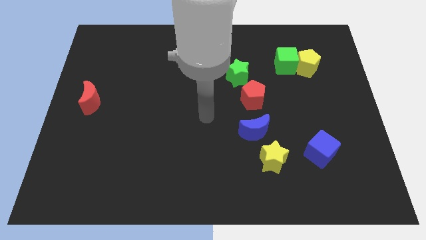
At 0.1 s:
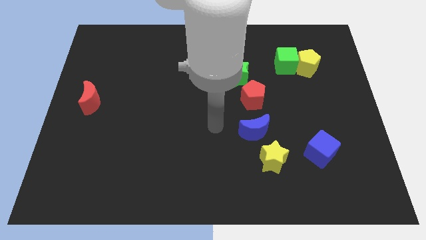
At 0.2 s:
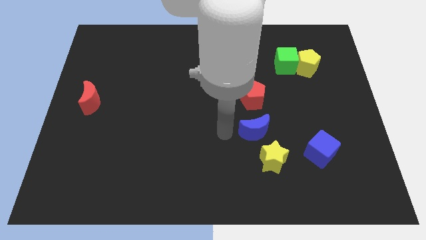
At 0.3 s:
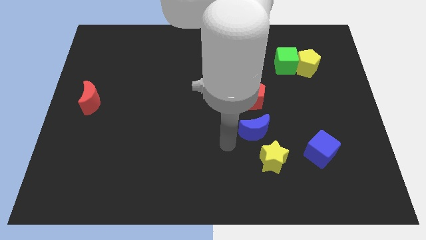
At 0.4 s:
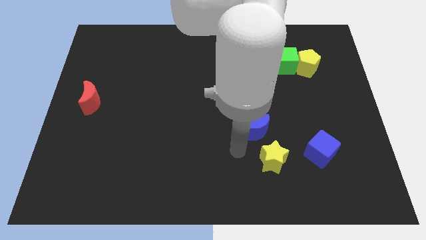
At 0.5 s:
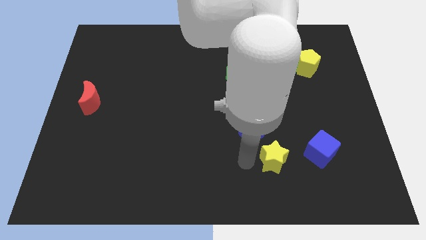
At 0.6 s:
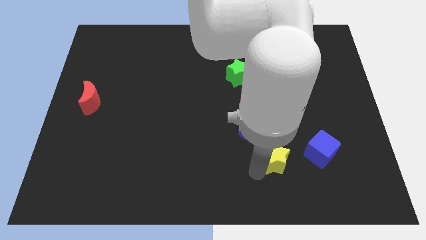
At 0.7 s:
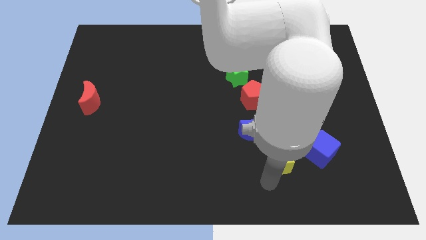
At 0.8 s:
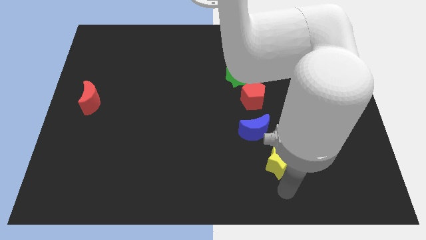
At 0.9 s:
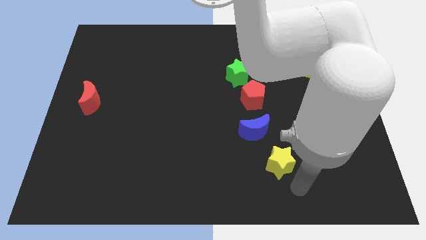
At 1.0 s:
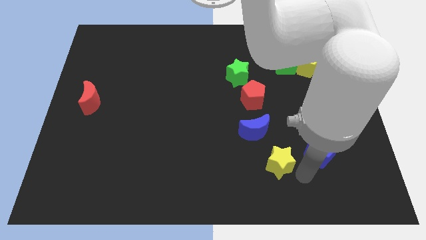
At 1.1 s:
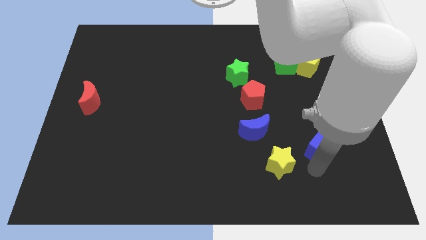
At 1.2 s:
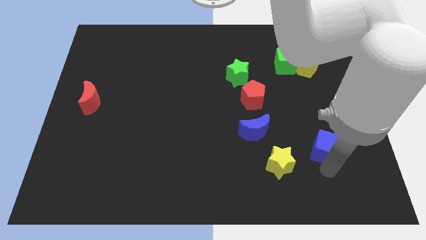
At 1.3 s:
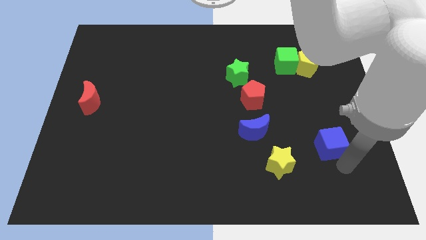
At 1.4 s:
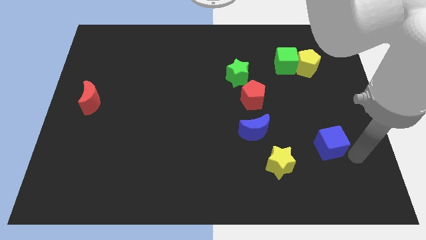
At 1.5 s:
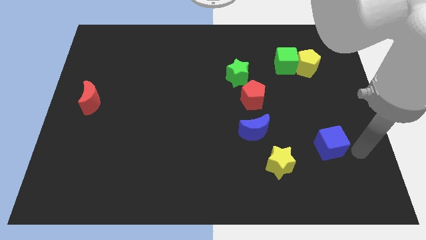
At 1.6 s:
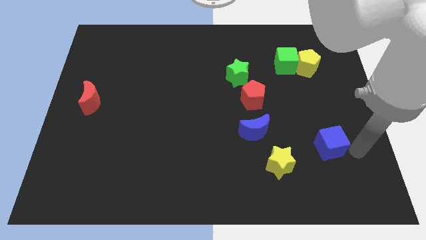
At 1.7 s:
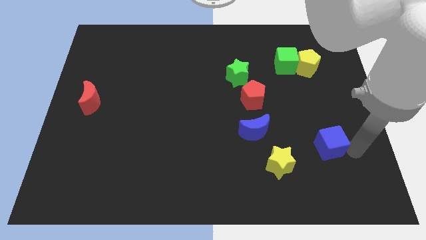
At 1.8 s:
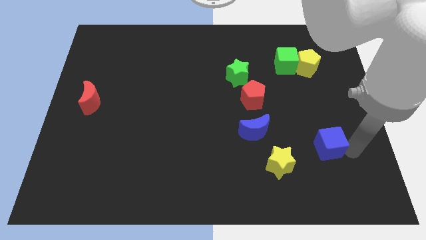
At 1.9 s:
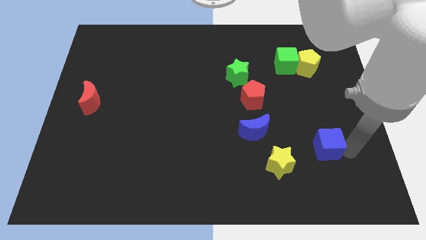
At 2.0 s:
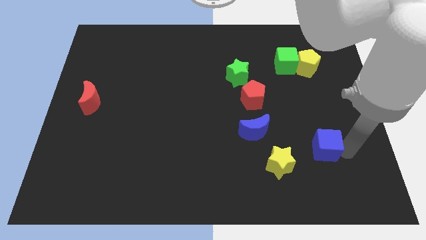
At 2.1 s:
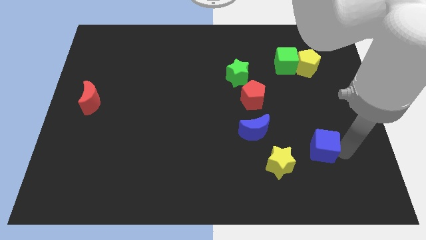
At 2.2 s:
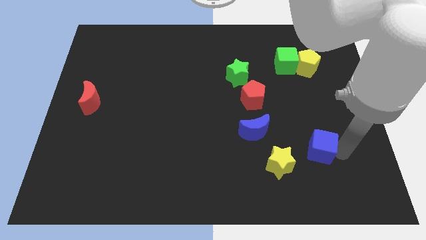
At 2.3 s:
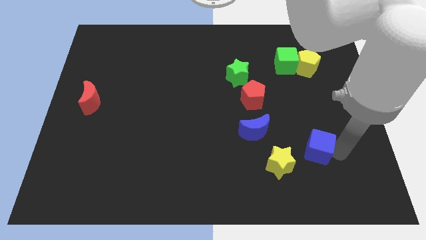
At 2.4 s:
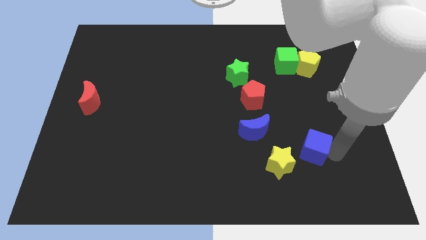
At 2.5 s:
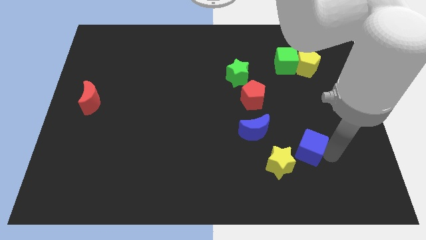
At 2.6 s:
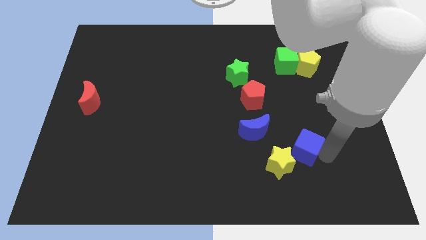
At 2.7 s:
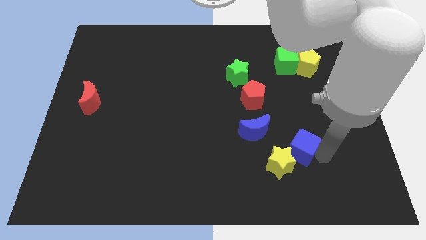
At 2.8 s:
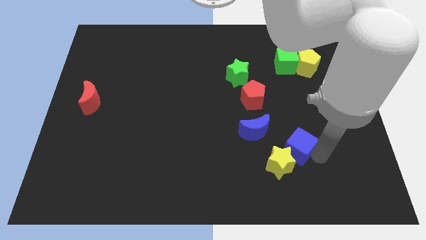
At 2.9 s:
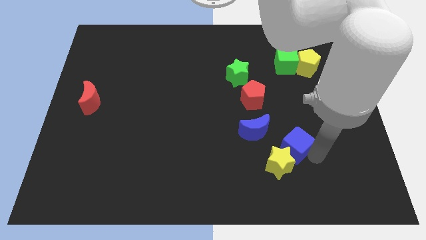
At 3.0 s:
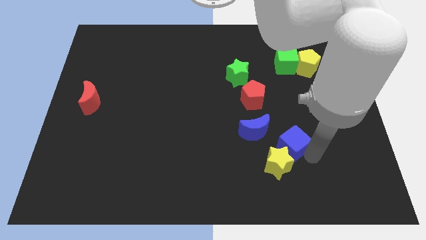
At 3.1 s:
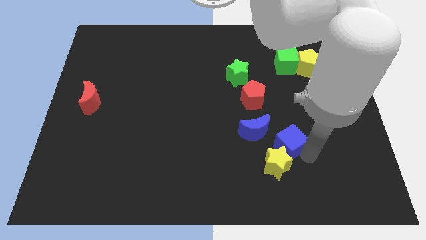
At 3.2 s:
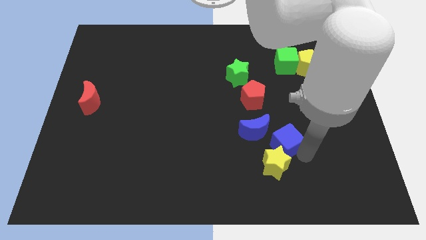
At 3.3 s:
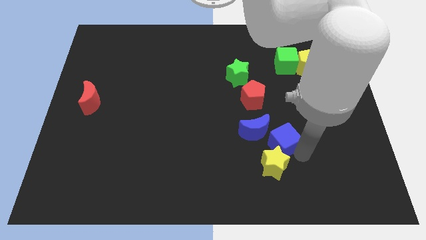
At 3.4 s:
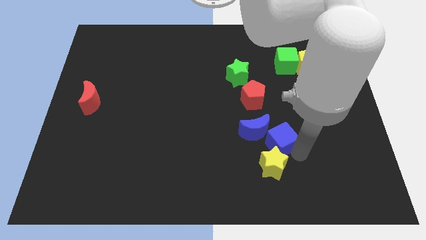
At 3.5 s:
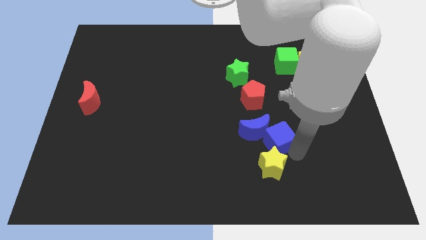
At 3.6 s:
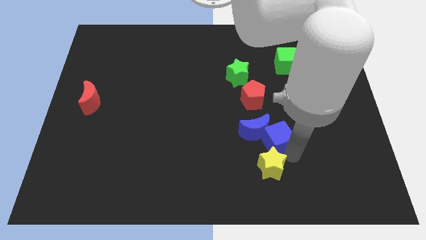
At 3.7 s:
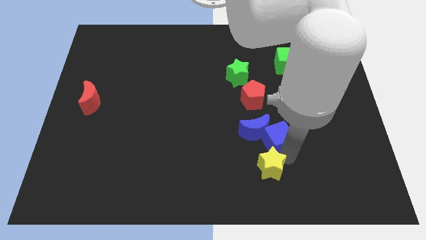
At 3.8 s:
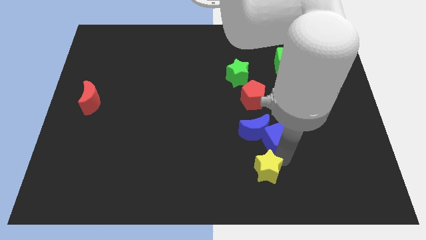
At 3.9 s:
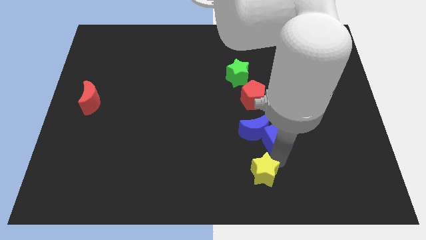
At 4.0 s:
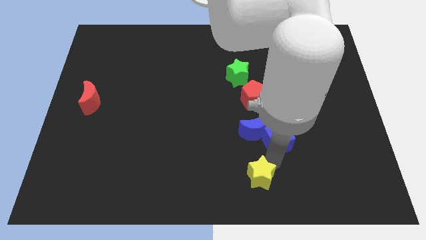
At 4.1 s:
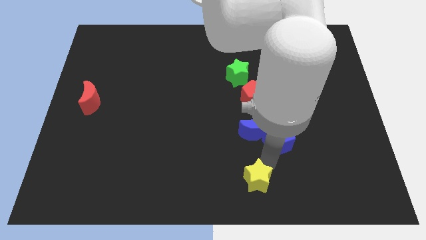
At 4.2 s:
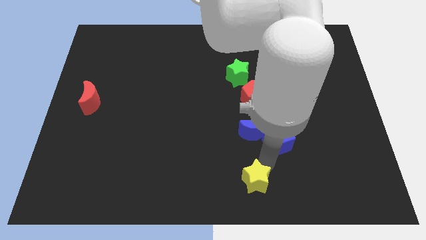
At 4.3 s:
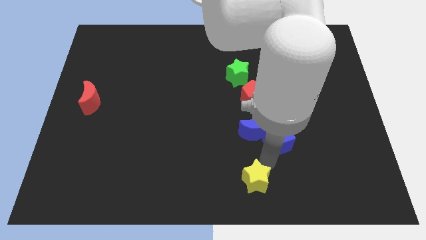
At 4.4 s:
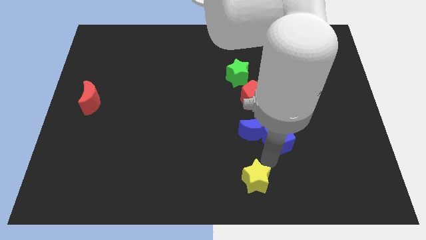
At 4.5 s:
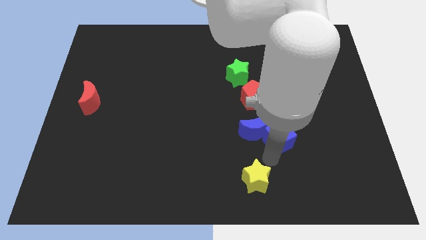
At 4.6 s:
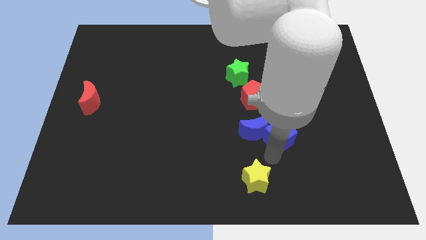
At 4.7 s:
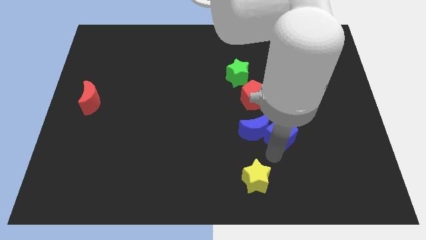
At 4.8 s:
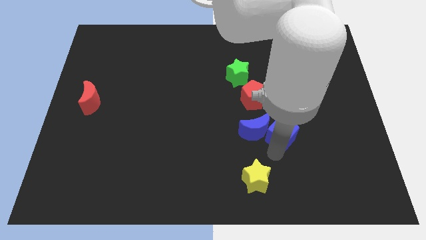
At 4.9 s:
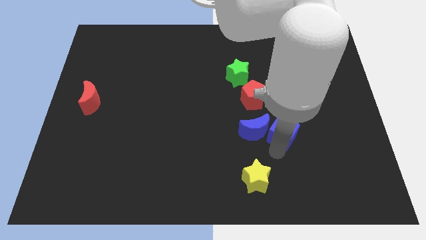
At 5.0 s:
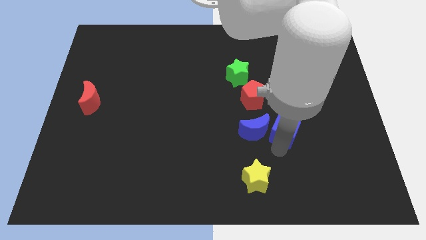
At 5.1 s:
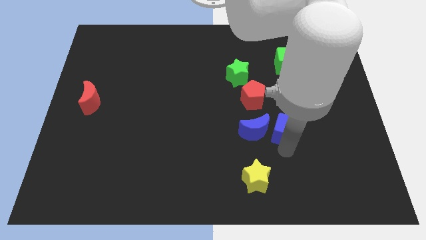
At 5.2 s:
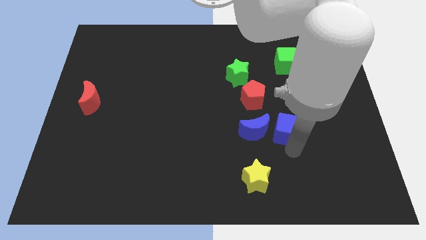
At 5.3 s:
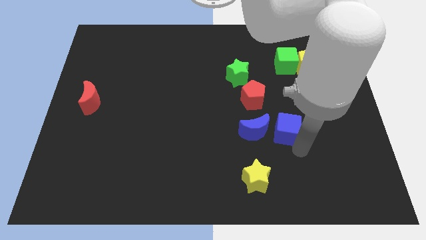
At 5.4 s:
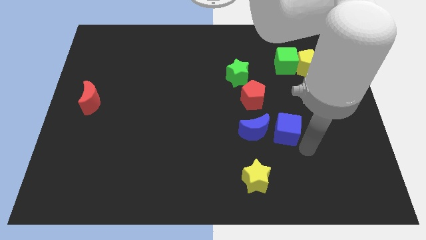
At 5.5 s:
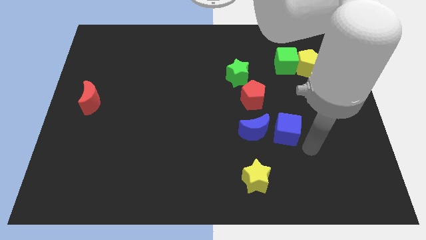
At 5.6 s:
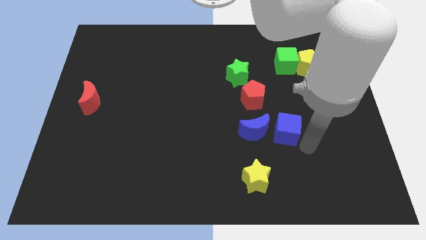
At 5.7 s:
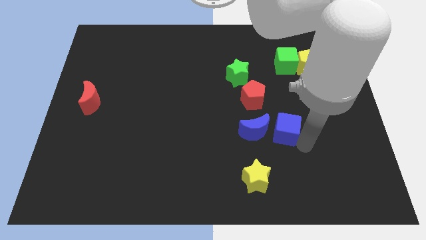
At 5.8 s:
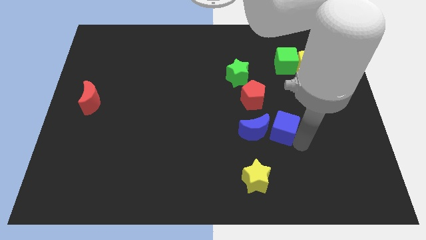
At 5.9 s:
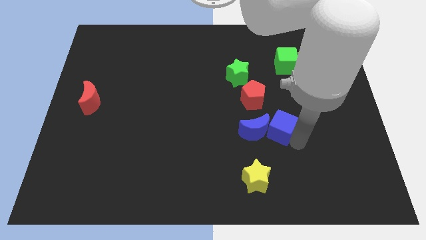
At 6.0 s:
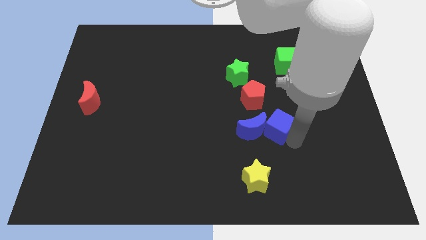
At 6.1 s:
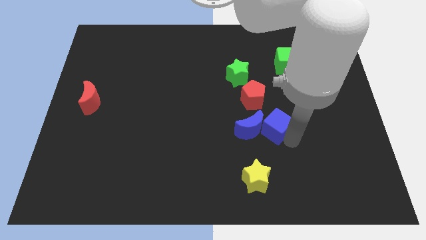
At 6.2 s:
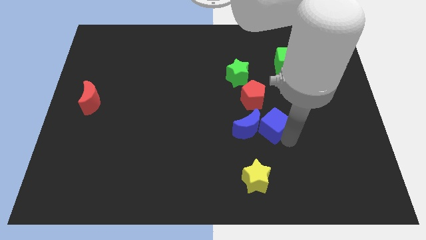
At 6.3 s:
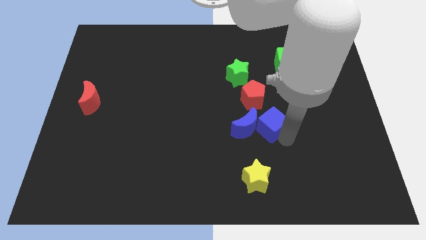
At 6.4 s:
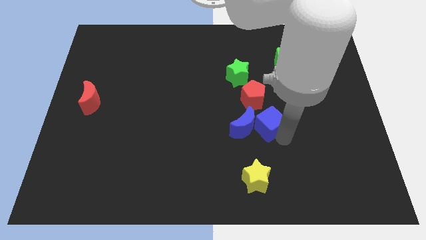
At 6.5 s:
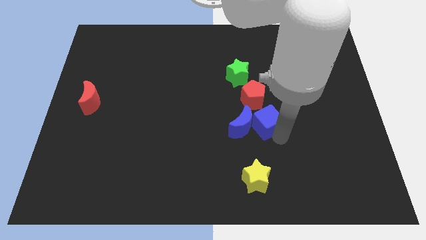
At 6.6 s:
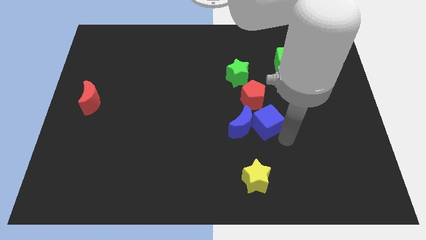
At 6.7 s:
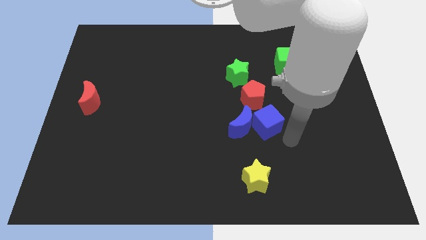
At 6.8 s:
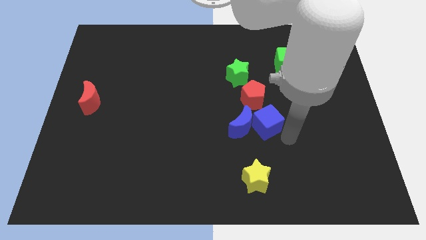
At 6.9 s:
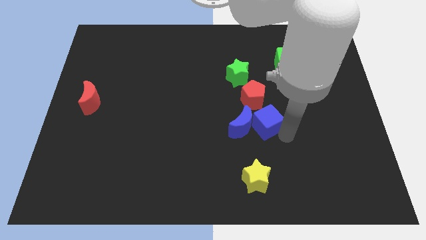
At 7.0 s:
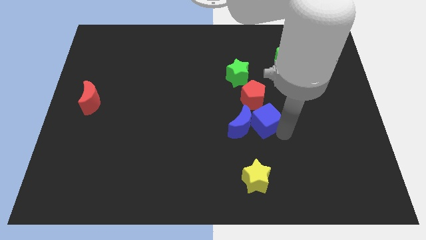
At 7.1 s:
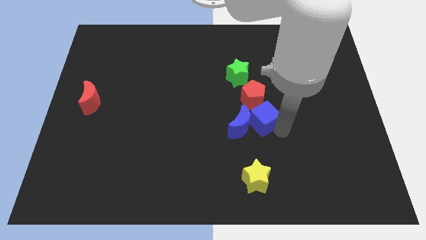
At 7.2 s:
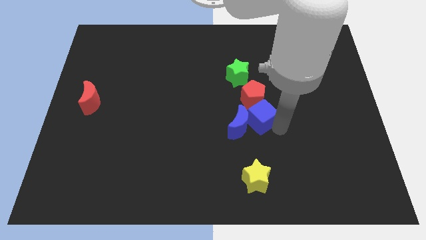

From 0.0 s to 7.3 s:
slide the blue cube to the center of the board

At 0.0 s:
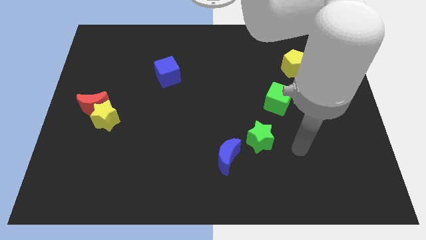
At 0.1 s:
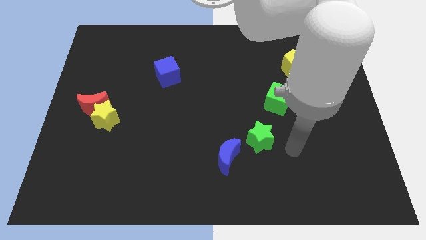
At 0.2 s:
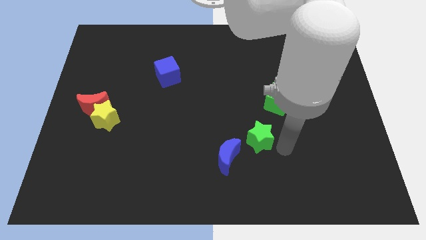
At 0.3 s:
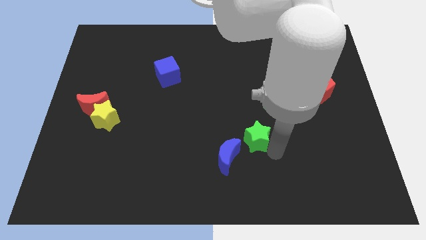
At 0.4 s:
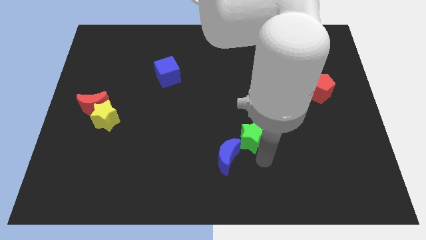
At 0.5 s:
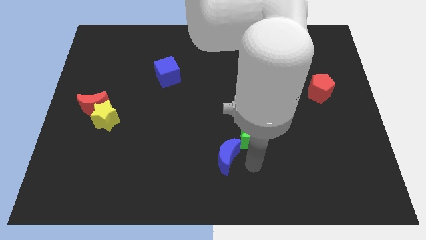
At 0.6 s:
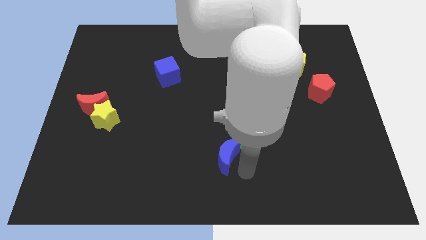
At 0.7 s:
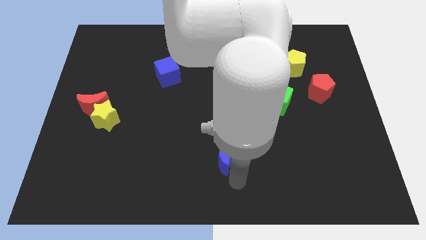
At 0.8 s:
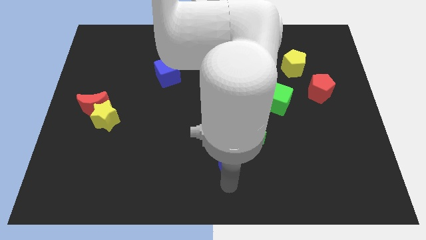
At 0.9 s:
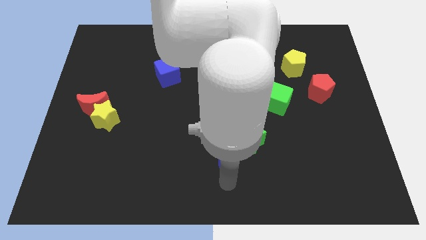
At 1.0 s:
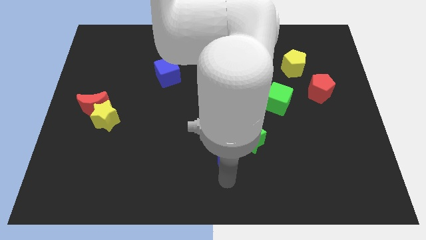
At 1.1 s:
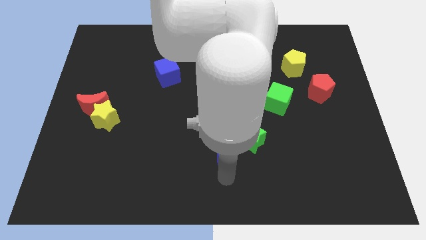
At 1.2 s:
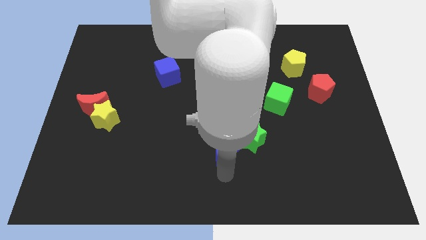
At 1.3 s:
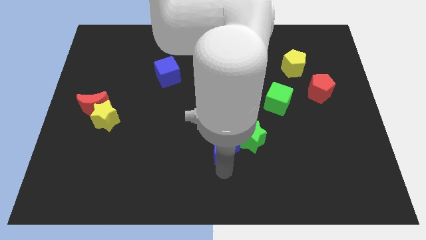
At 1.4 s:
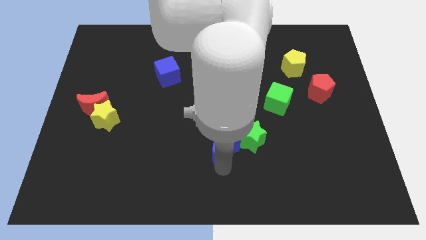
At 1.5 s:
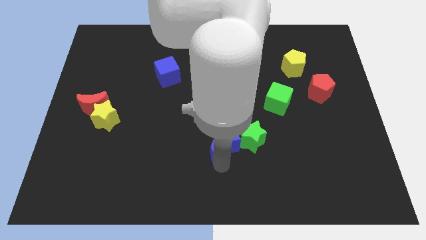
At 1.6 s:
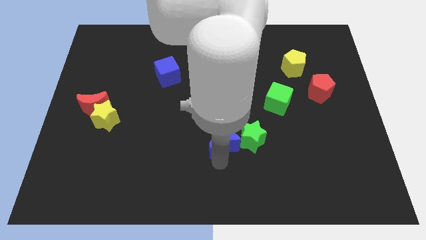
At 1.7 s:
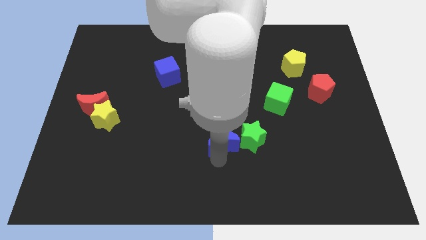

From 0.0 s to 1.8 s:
slide the blue moon to the middle
